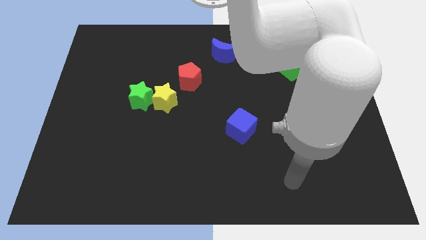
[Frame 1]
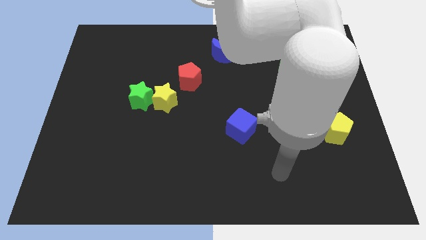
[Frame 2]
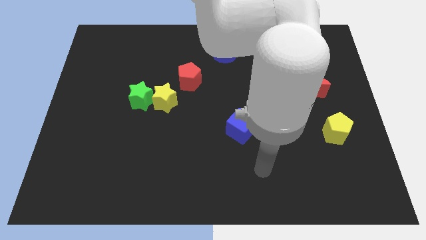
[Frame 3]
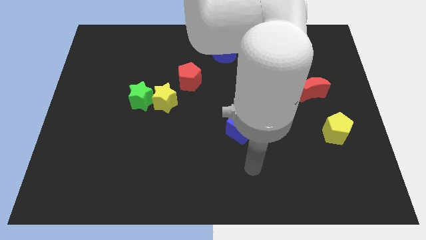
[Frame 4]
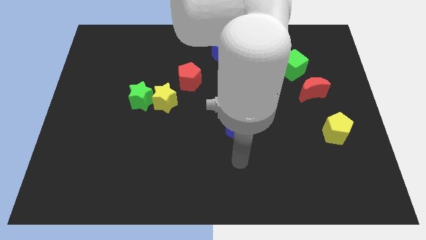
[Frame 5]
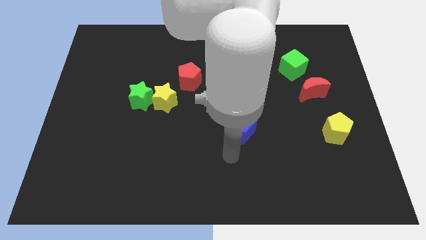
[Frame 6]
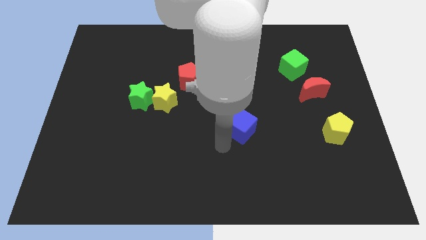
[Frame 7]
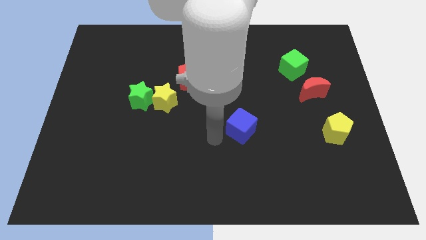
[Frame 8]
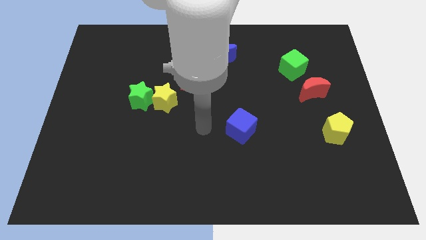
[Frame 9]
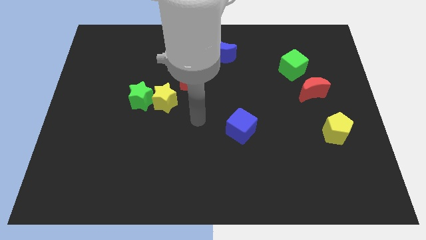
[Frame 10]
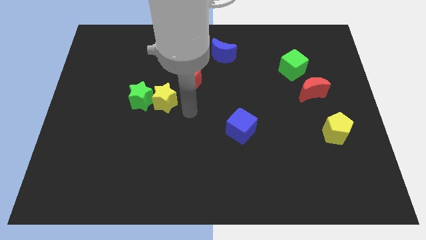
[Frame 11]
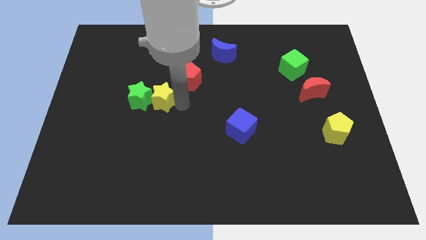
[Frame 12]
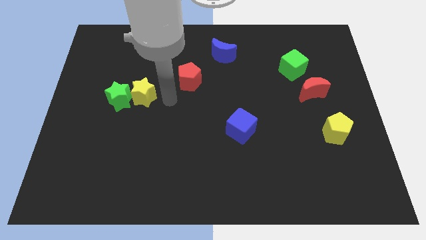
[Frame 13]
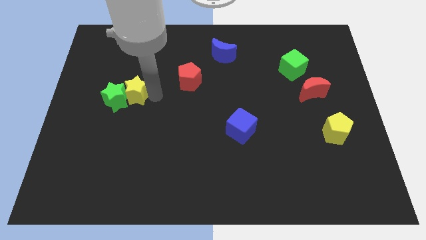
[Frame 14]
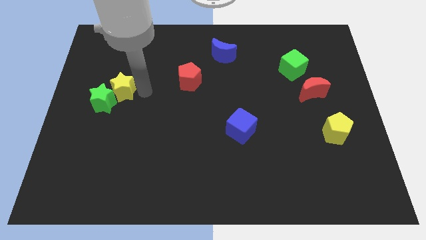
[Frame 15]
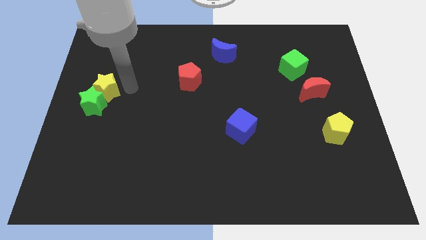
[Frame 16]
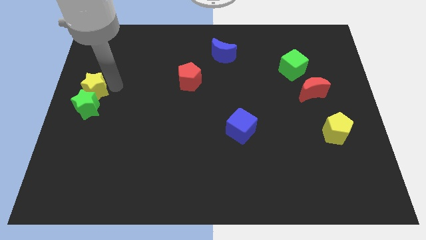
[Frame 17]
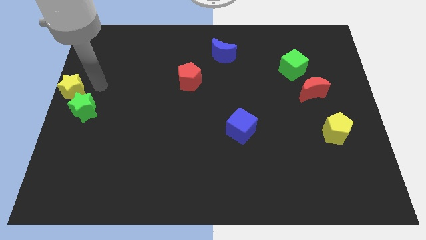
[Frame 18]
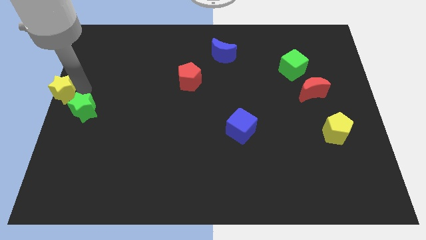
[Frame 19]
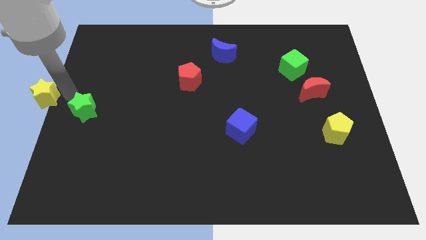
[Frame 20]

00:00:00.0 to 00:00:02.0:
move the green star away from the yellow star

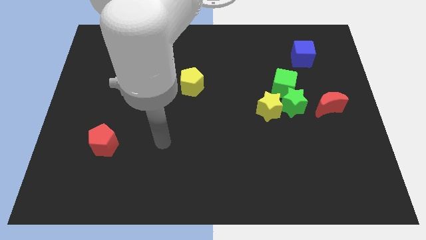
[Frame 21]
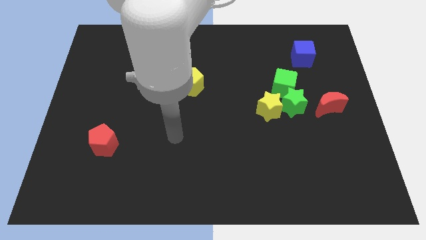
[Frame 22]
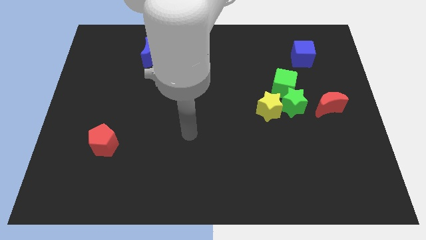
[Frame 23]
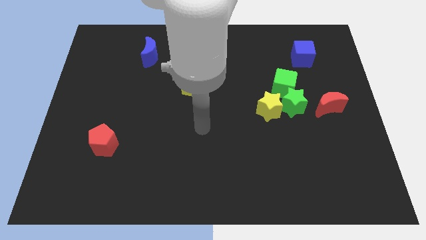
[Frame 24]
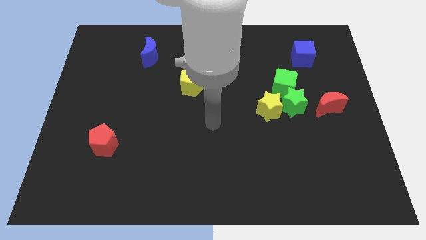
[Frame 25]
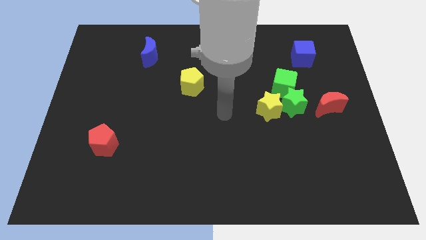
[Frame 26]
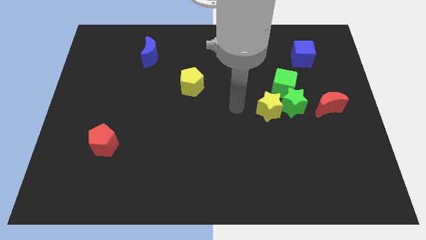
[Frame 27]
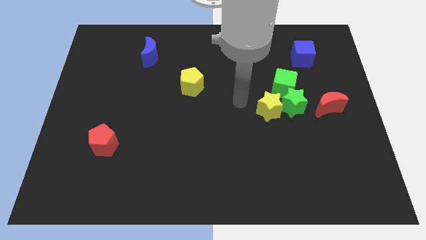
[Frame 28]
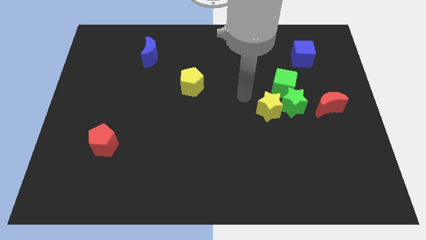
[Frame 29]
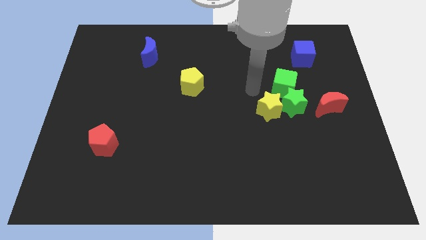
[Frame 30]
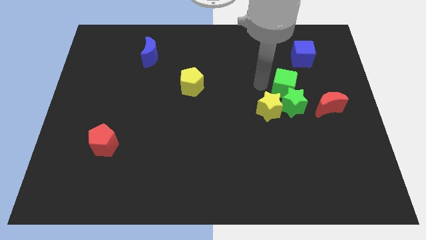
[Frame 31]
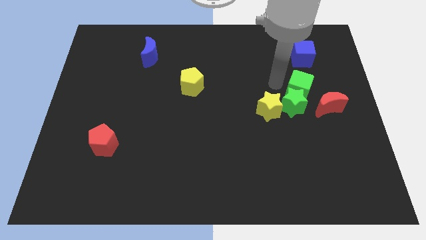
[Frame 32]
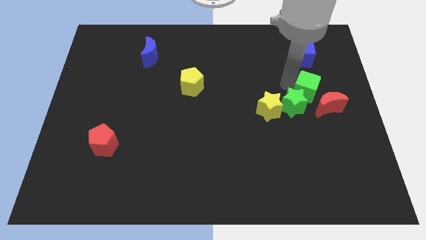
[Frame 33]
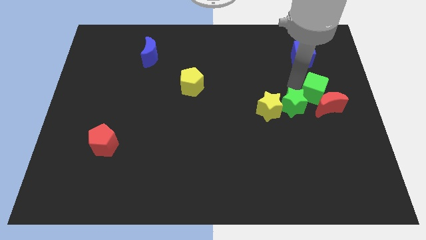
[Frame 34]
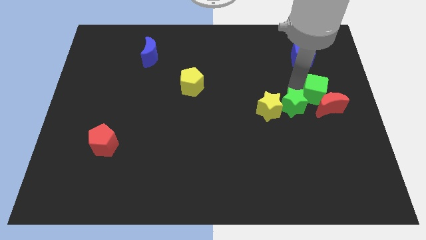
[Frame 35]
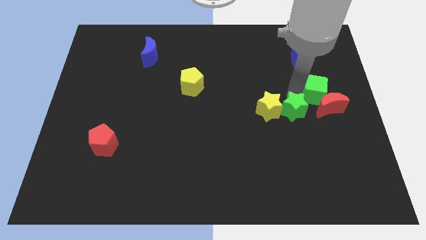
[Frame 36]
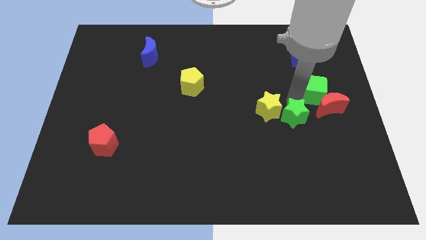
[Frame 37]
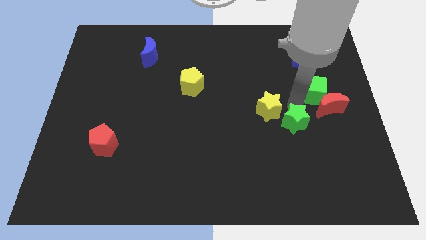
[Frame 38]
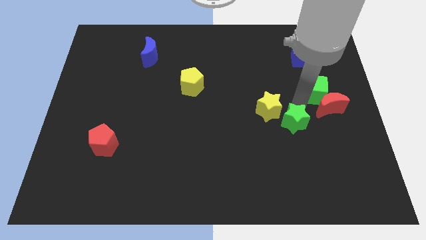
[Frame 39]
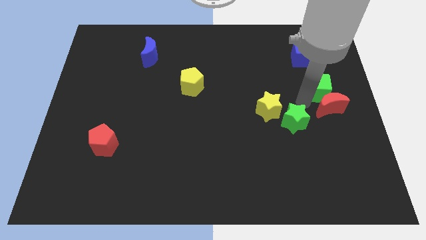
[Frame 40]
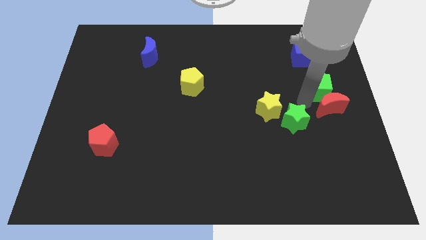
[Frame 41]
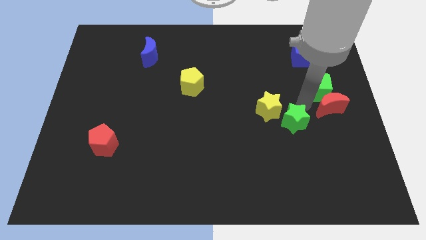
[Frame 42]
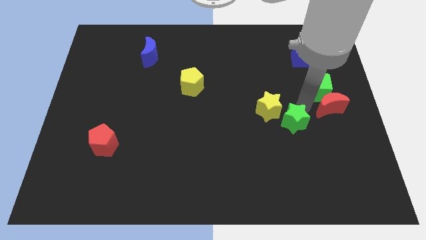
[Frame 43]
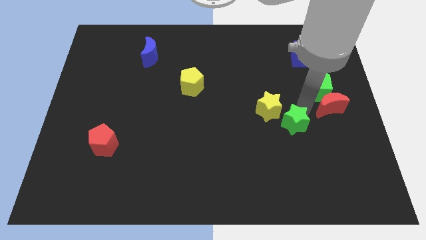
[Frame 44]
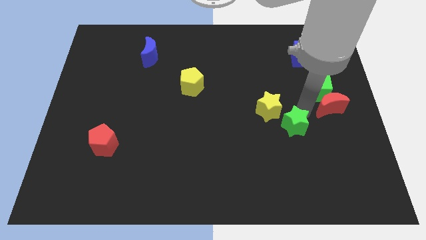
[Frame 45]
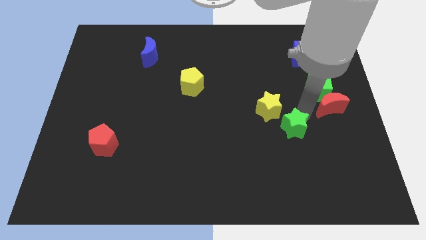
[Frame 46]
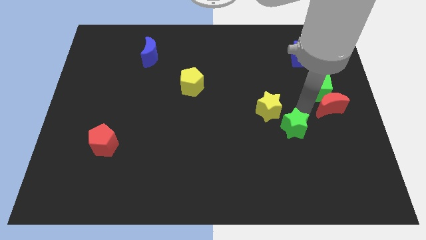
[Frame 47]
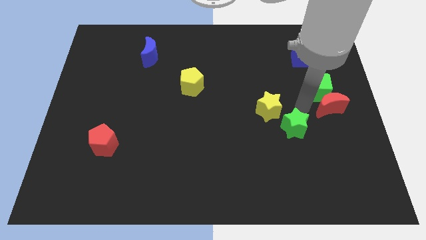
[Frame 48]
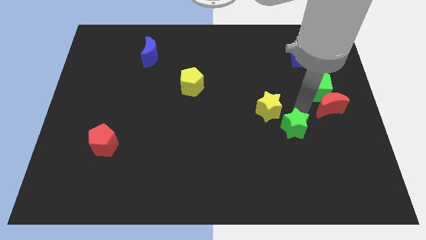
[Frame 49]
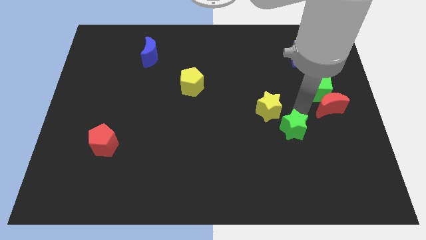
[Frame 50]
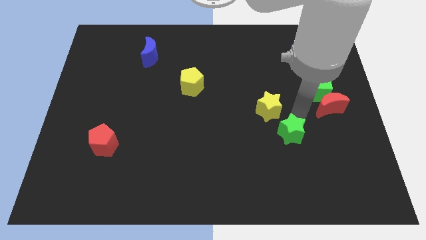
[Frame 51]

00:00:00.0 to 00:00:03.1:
pull the green star apart from the yellow star, green cube, and red moon

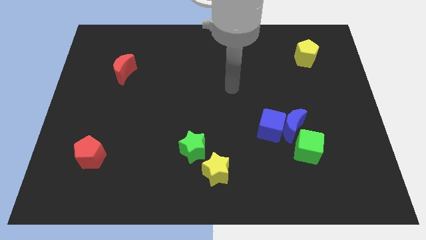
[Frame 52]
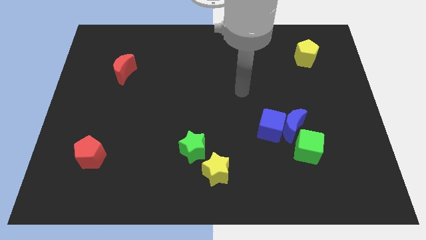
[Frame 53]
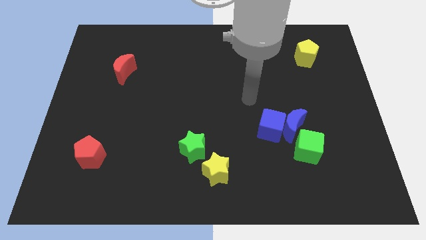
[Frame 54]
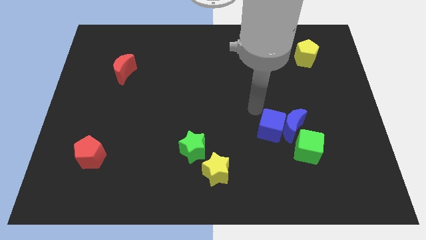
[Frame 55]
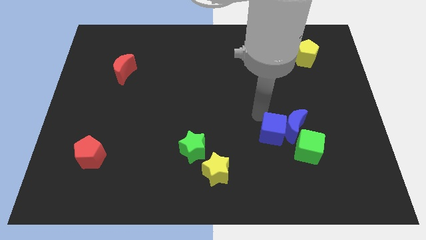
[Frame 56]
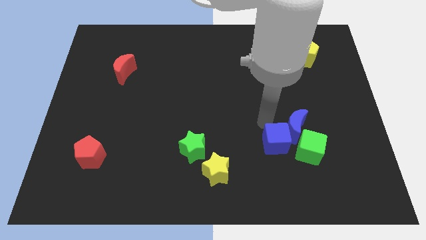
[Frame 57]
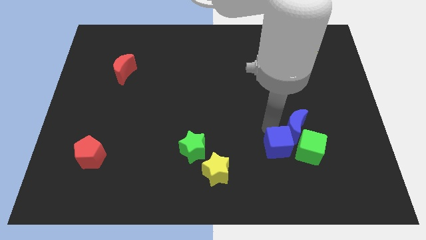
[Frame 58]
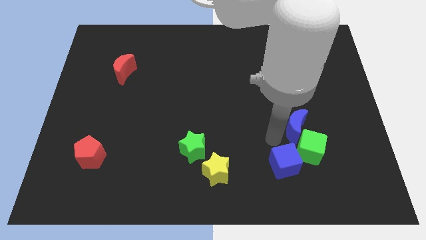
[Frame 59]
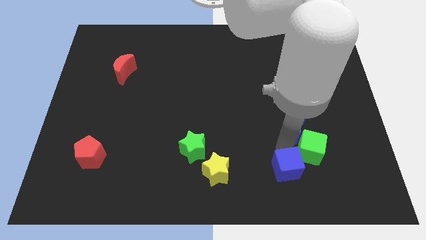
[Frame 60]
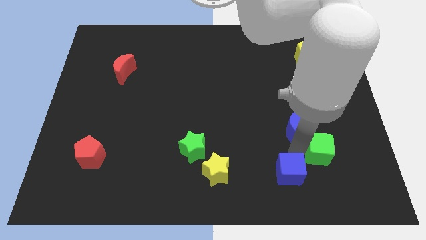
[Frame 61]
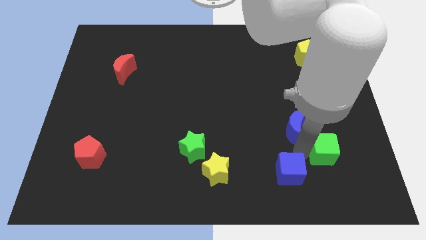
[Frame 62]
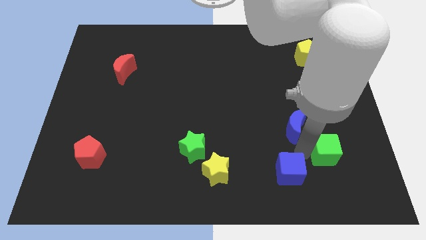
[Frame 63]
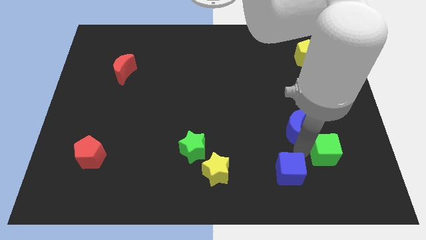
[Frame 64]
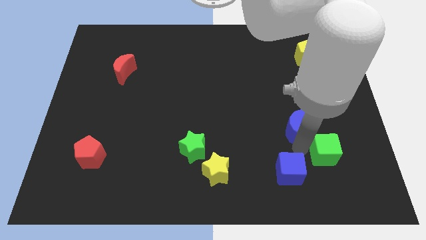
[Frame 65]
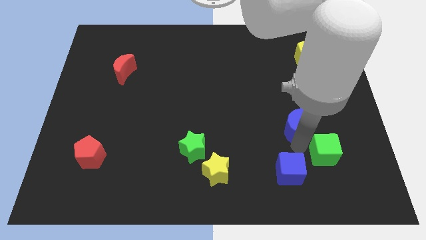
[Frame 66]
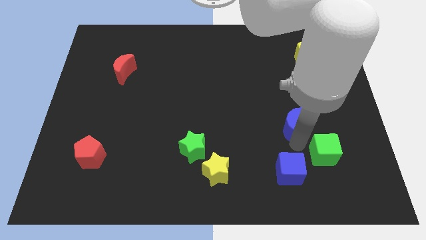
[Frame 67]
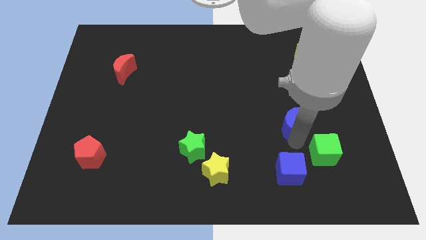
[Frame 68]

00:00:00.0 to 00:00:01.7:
separate the blue moon from the blue cube and green cube

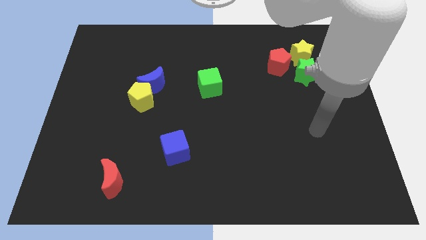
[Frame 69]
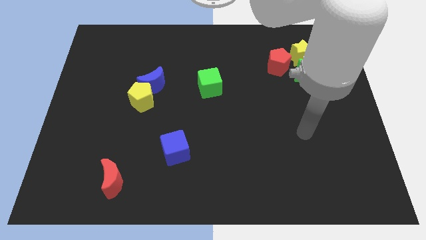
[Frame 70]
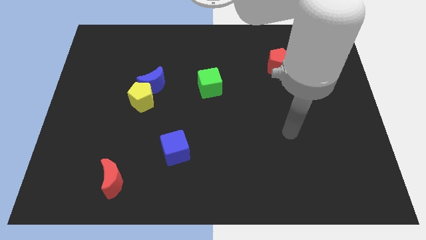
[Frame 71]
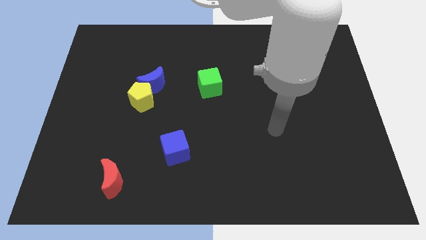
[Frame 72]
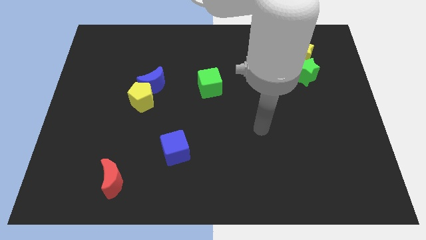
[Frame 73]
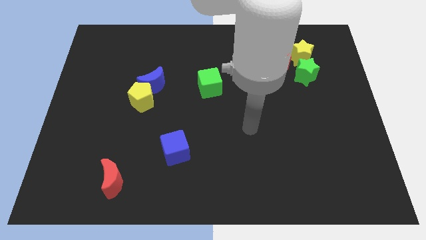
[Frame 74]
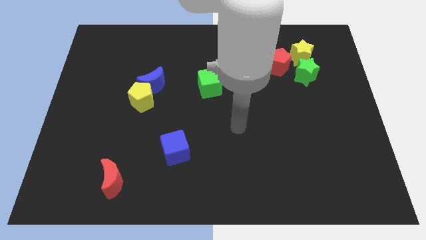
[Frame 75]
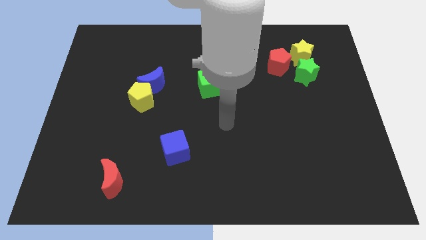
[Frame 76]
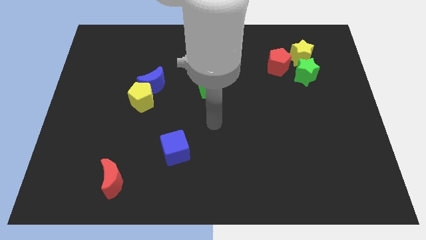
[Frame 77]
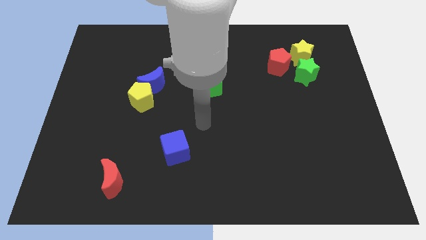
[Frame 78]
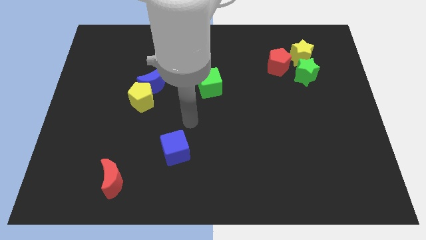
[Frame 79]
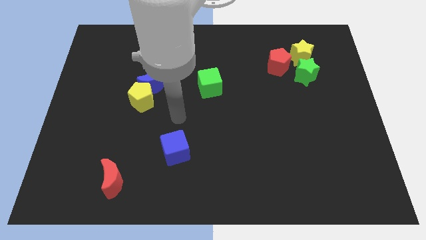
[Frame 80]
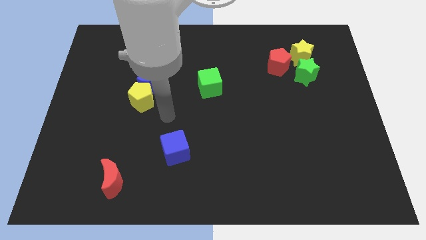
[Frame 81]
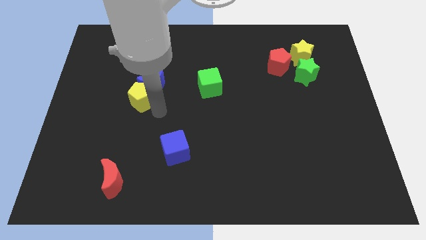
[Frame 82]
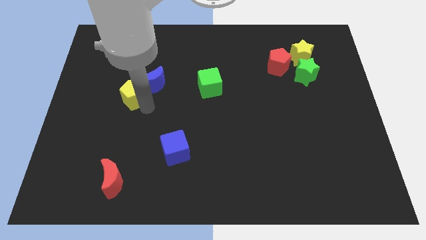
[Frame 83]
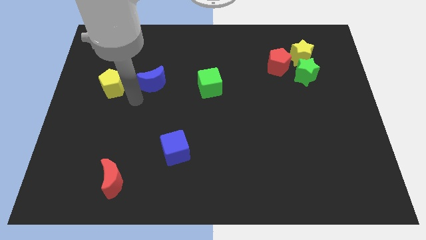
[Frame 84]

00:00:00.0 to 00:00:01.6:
move the blue moon away from the yellow pentagon

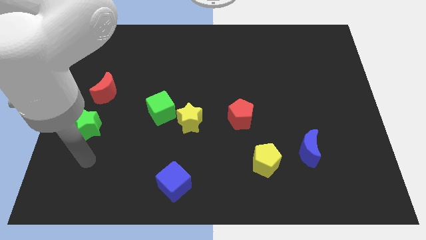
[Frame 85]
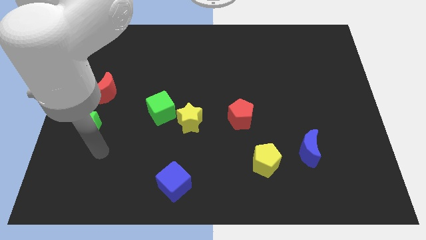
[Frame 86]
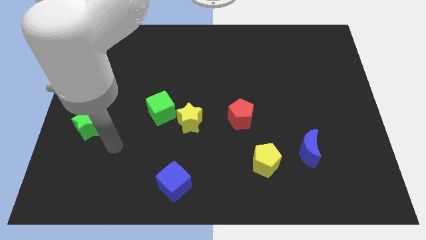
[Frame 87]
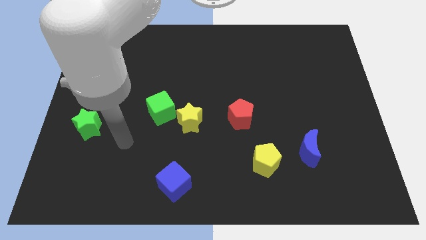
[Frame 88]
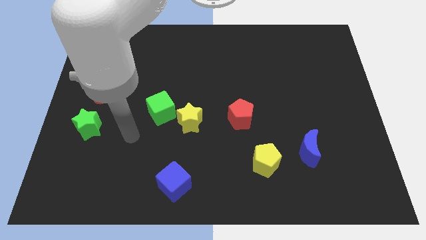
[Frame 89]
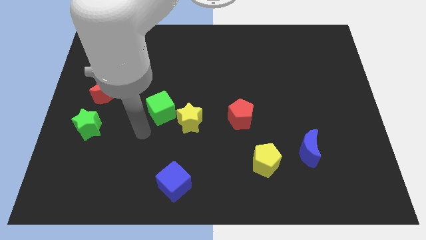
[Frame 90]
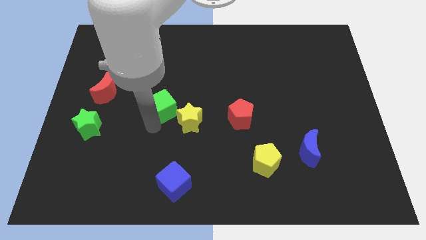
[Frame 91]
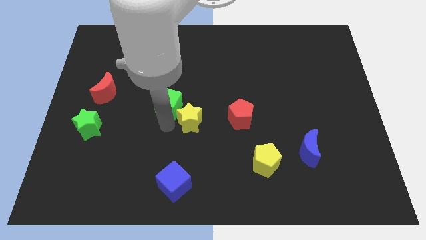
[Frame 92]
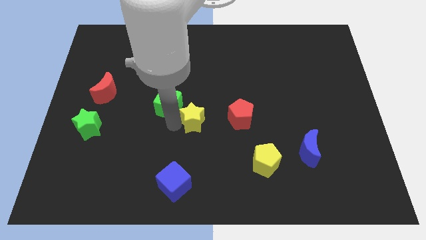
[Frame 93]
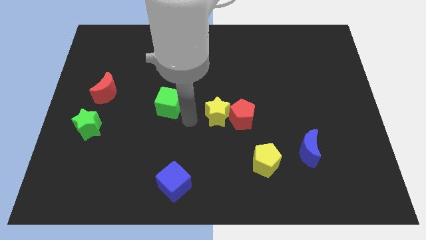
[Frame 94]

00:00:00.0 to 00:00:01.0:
pull the green cube apart from the yellow star
